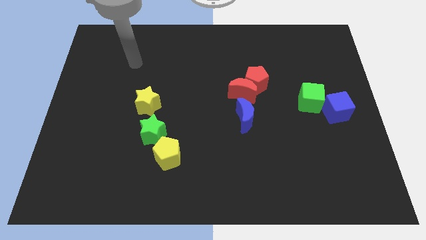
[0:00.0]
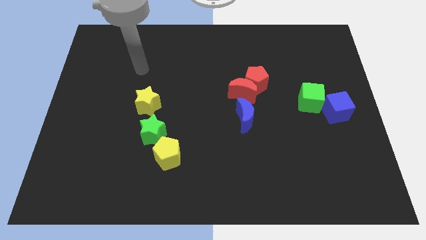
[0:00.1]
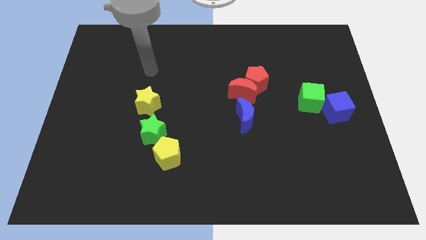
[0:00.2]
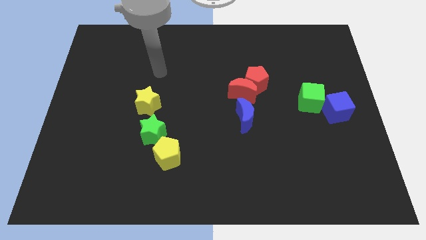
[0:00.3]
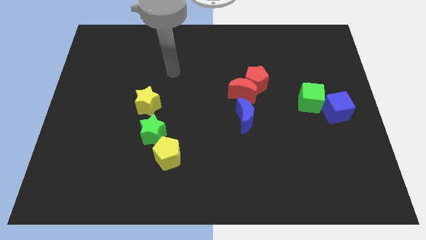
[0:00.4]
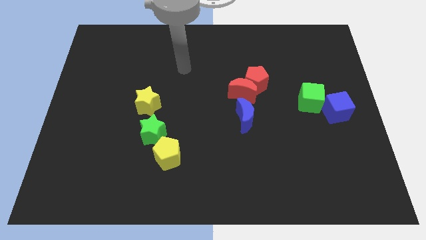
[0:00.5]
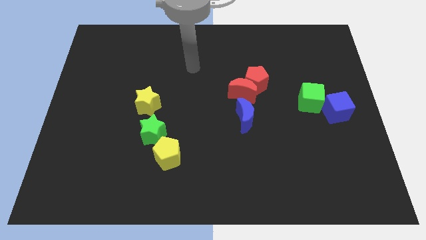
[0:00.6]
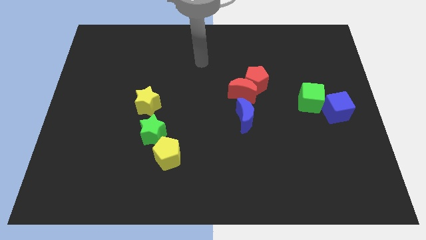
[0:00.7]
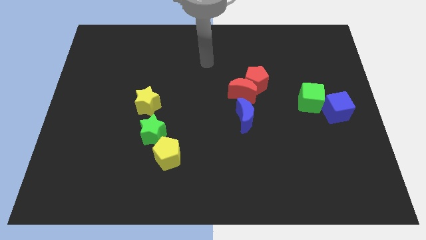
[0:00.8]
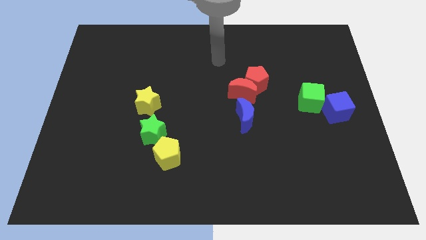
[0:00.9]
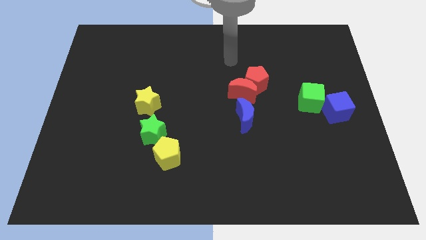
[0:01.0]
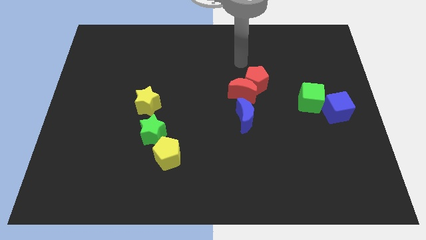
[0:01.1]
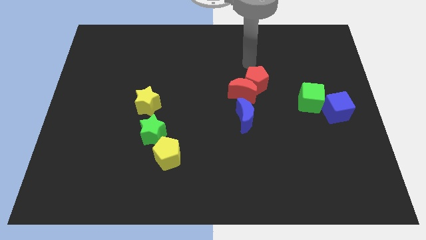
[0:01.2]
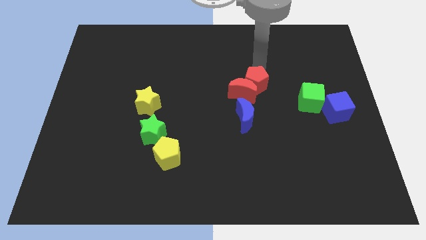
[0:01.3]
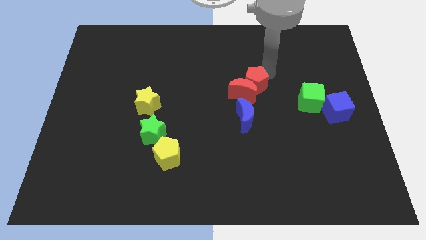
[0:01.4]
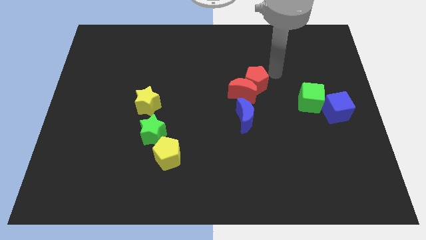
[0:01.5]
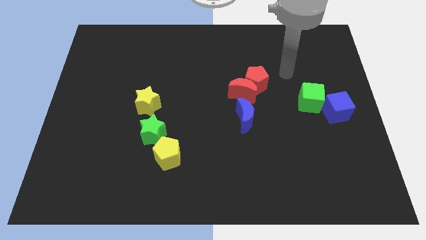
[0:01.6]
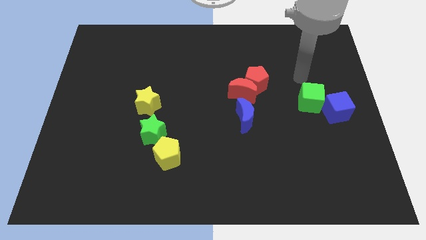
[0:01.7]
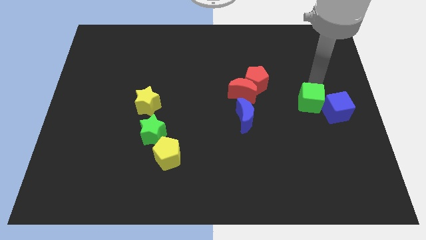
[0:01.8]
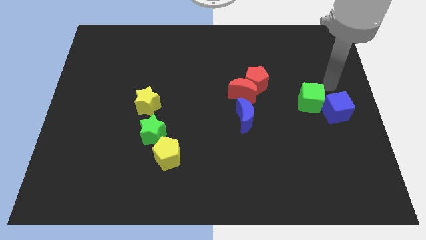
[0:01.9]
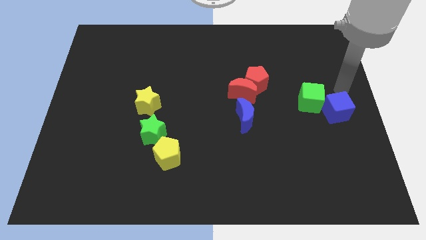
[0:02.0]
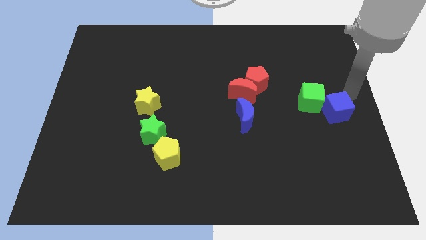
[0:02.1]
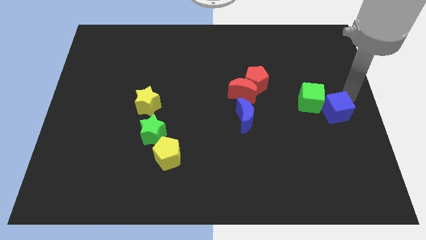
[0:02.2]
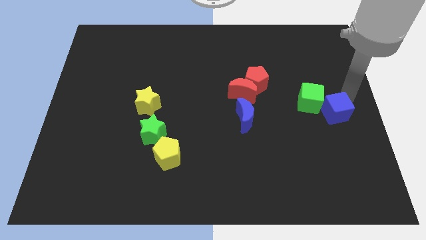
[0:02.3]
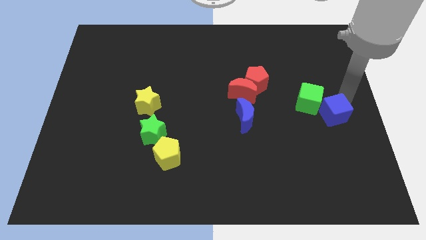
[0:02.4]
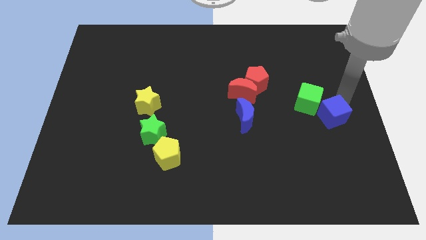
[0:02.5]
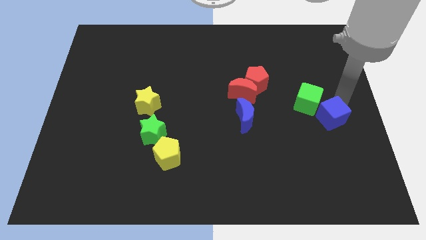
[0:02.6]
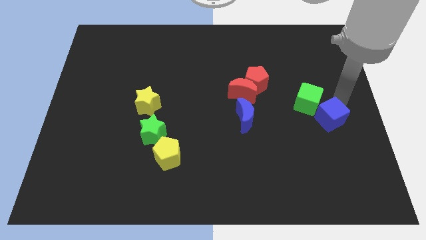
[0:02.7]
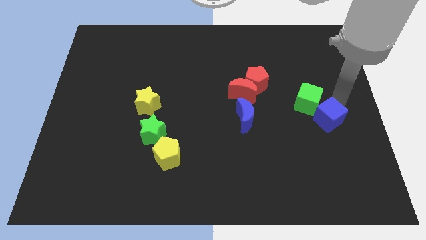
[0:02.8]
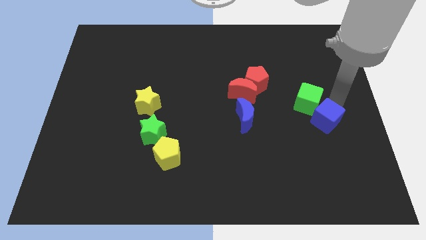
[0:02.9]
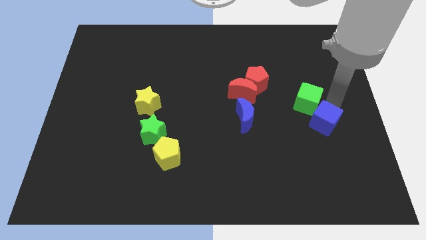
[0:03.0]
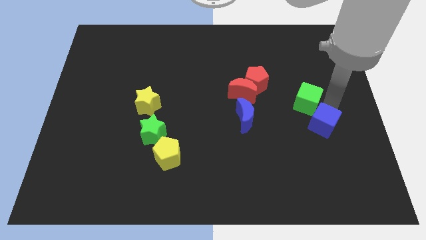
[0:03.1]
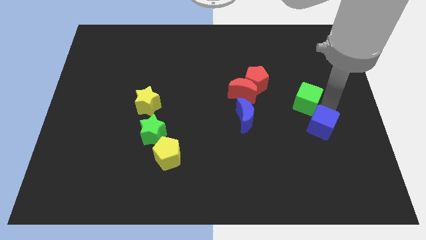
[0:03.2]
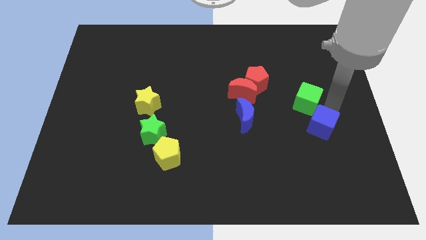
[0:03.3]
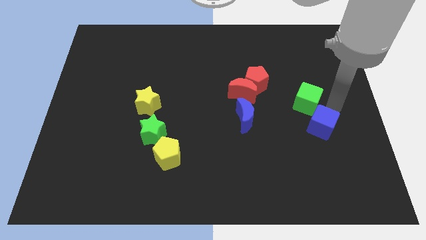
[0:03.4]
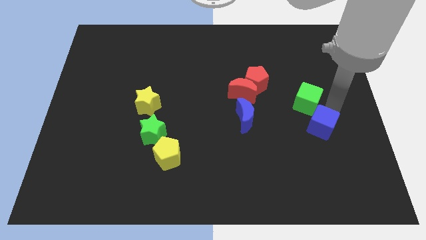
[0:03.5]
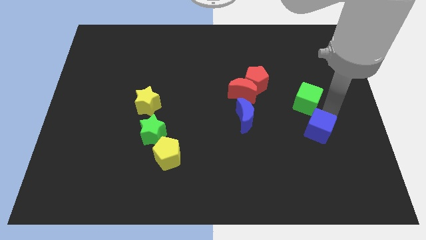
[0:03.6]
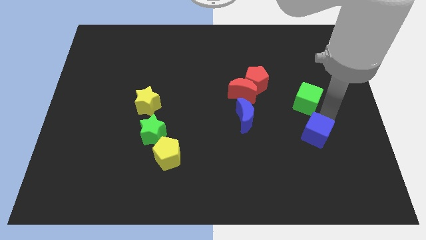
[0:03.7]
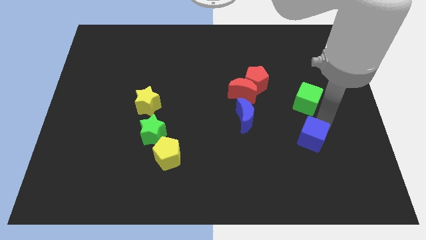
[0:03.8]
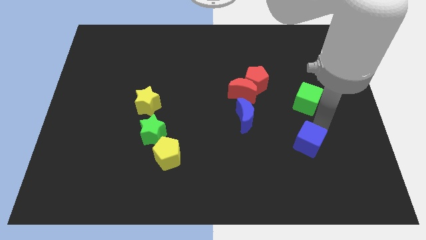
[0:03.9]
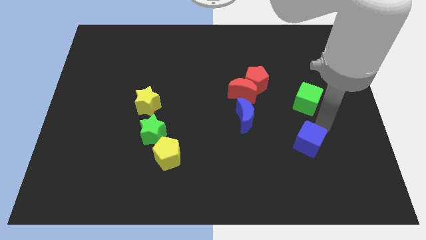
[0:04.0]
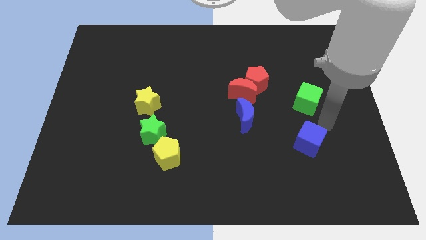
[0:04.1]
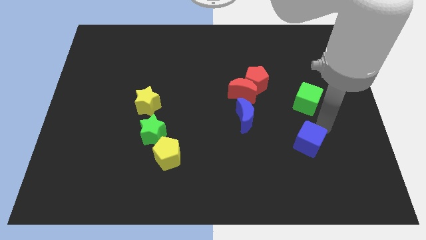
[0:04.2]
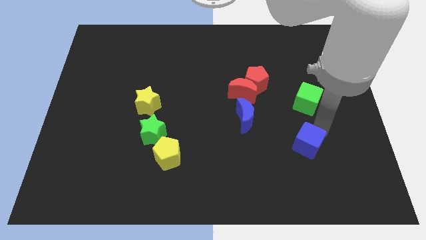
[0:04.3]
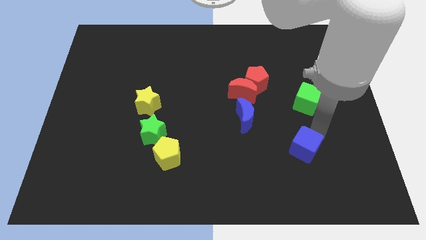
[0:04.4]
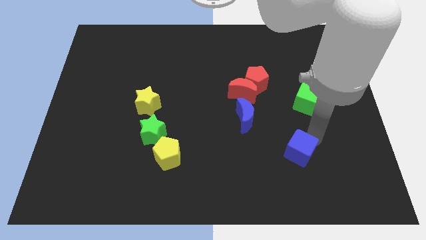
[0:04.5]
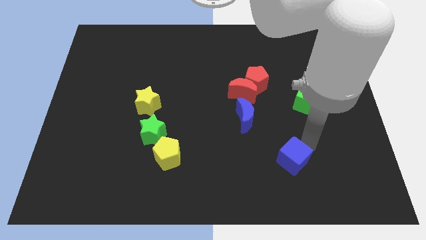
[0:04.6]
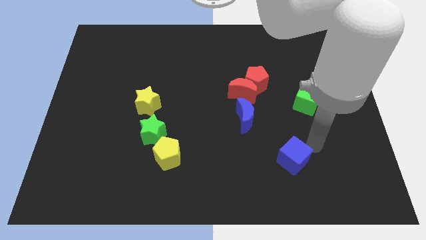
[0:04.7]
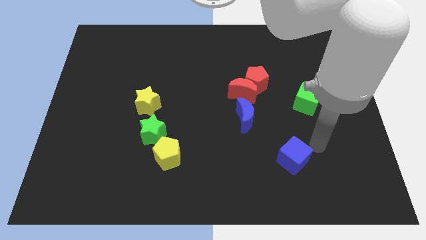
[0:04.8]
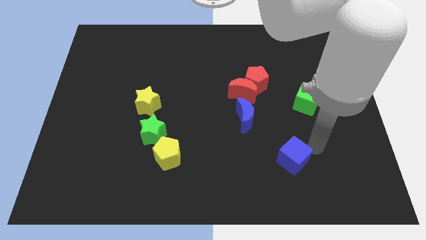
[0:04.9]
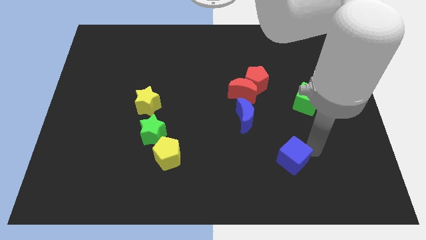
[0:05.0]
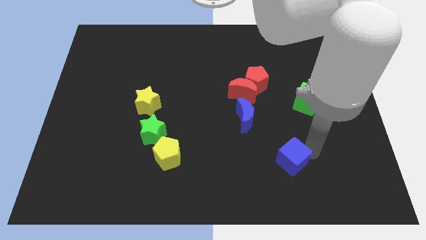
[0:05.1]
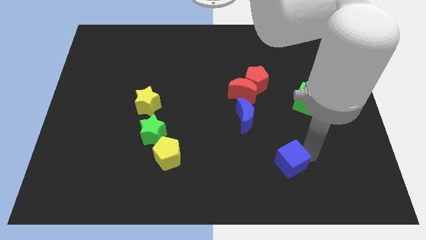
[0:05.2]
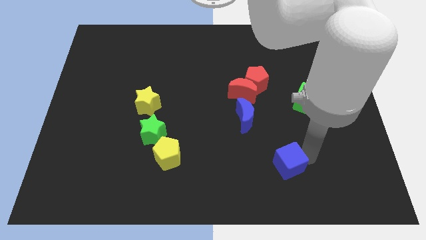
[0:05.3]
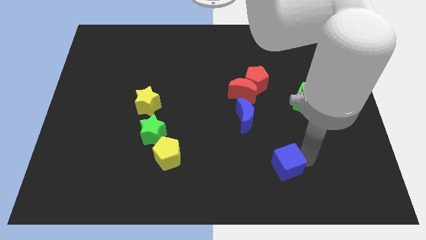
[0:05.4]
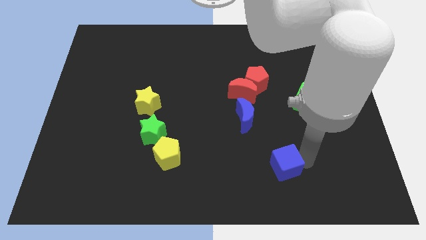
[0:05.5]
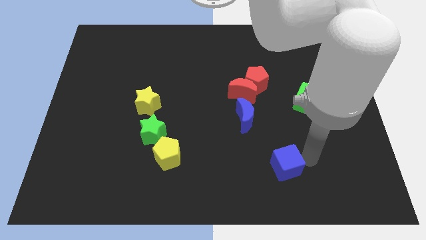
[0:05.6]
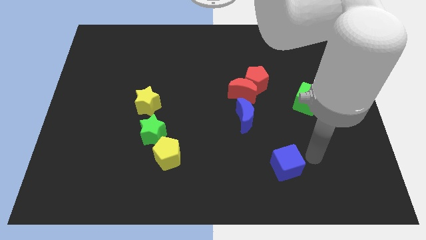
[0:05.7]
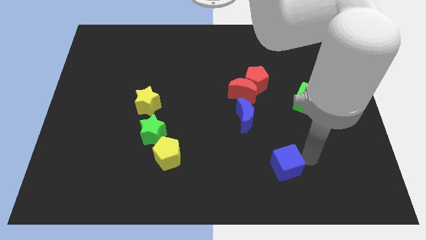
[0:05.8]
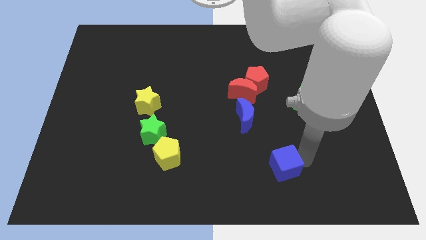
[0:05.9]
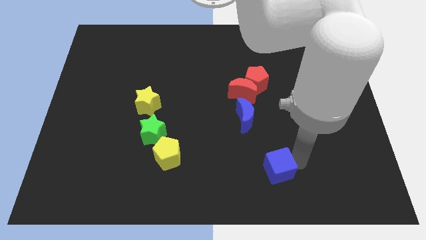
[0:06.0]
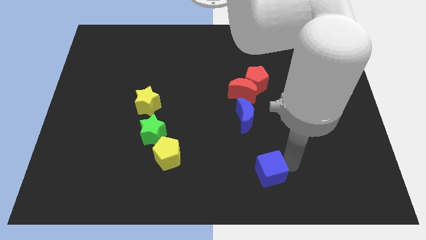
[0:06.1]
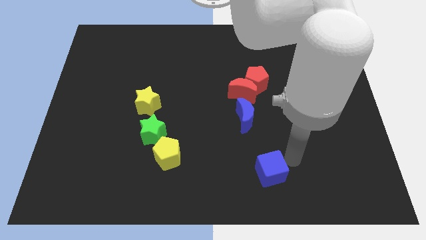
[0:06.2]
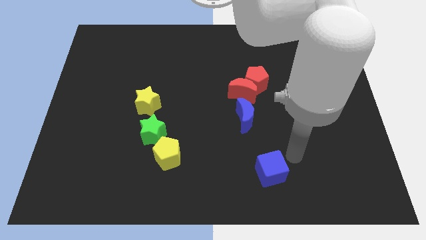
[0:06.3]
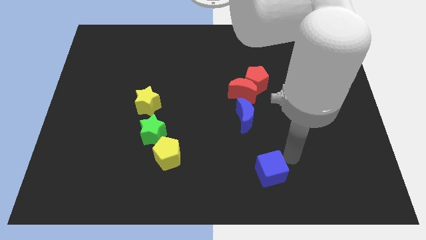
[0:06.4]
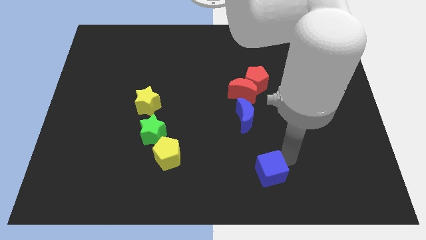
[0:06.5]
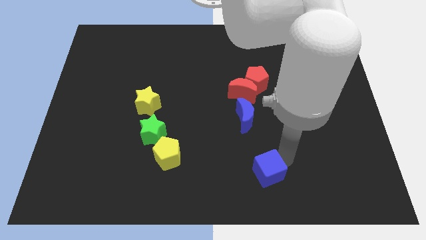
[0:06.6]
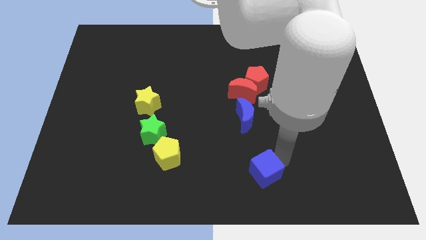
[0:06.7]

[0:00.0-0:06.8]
push the blue cube to the bottom

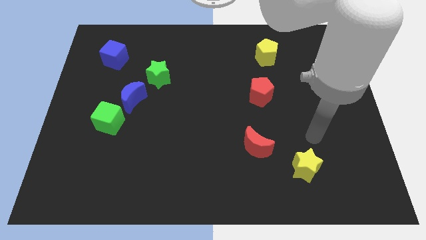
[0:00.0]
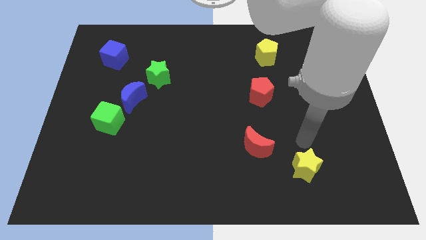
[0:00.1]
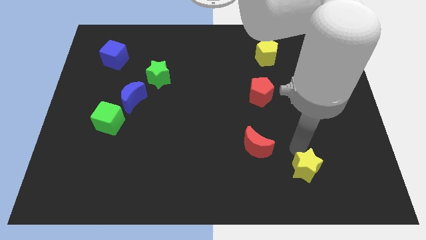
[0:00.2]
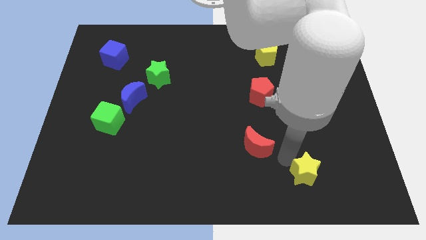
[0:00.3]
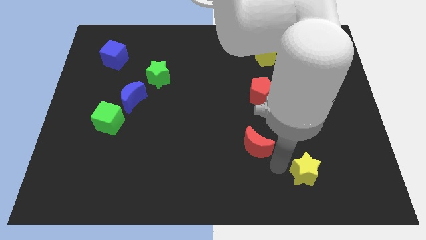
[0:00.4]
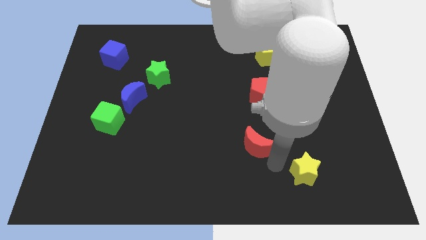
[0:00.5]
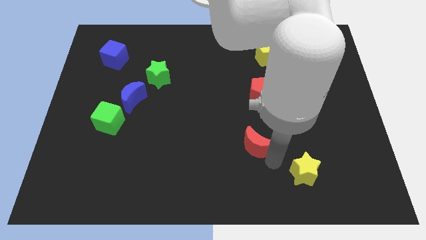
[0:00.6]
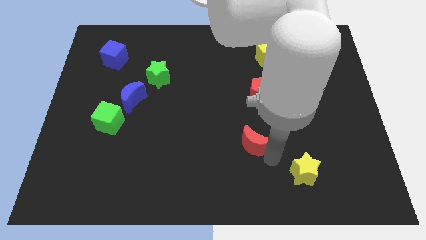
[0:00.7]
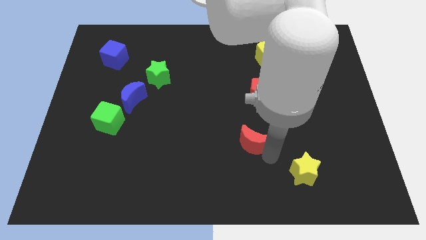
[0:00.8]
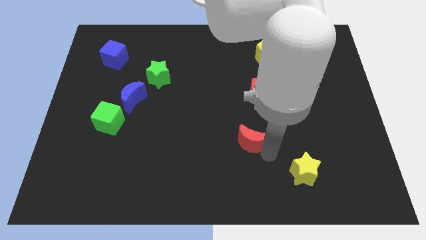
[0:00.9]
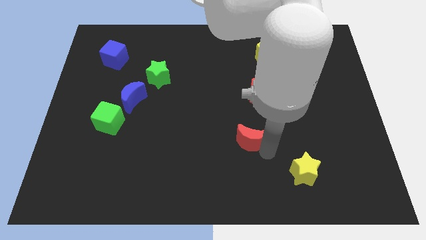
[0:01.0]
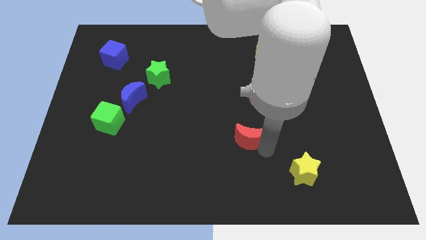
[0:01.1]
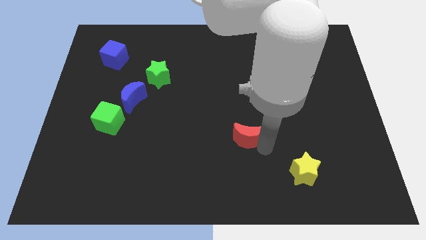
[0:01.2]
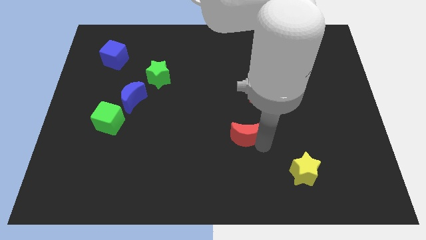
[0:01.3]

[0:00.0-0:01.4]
push the red moon to the middle
